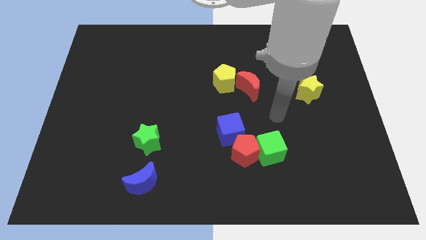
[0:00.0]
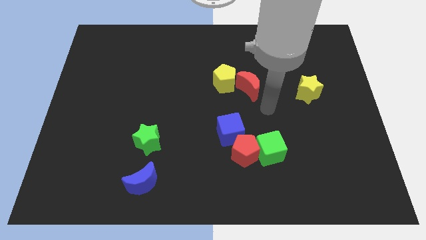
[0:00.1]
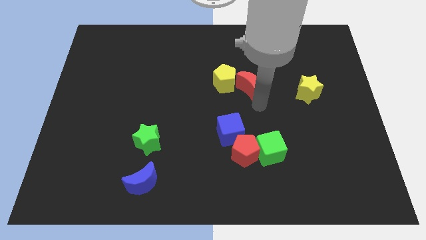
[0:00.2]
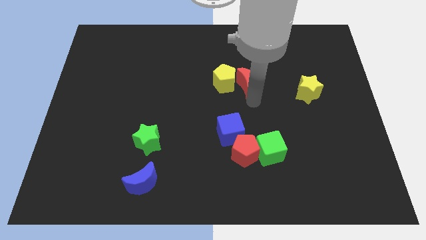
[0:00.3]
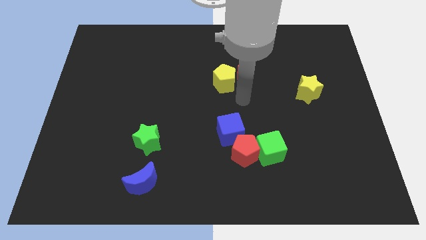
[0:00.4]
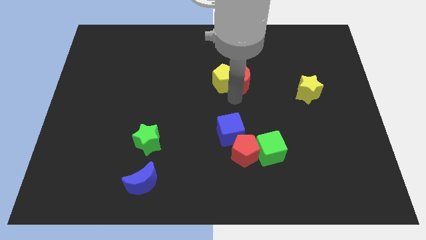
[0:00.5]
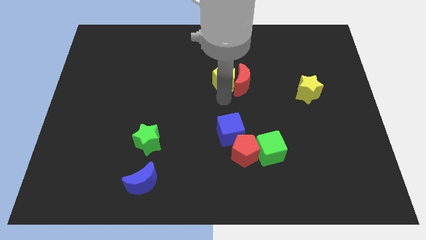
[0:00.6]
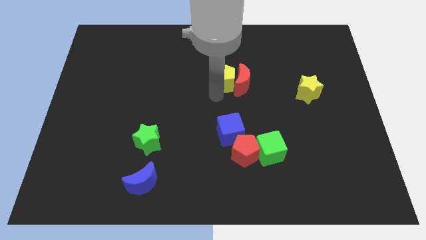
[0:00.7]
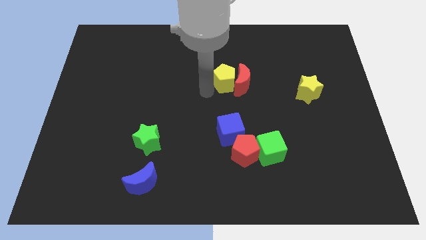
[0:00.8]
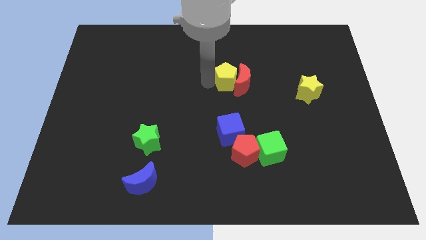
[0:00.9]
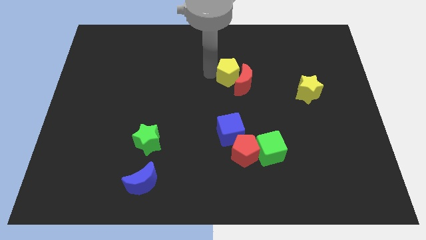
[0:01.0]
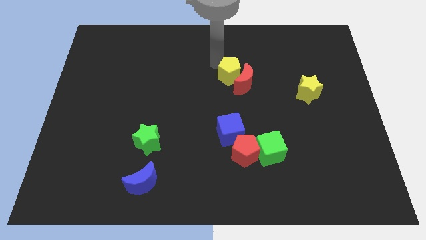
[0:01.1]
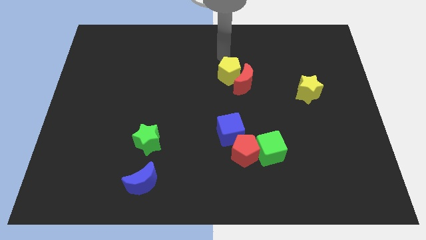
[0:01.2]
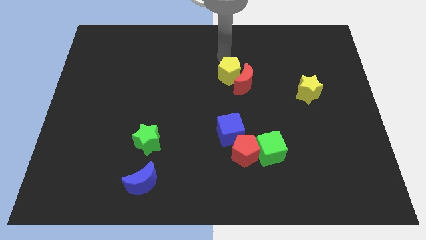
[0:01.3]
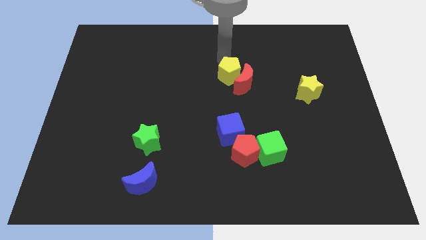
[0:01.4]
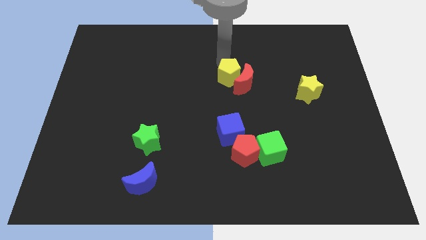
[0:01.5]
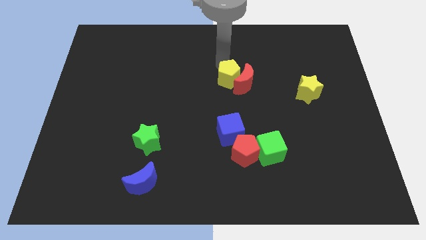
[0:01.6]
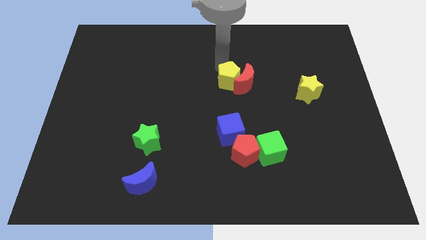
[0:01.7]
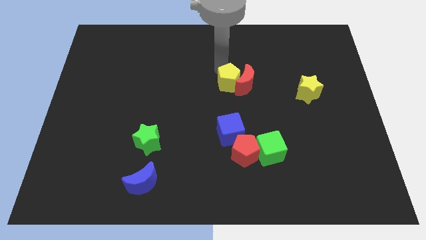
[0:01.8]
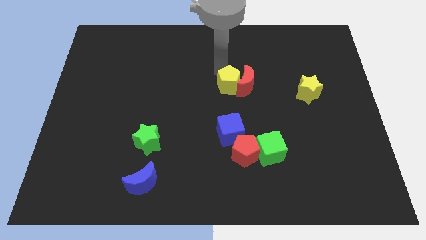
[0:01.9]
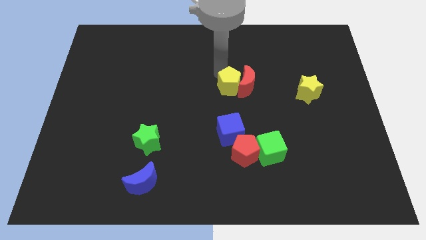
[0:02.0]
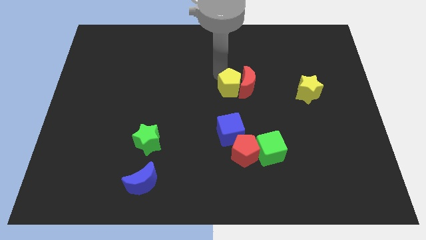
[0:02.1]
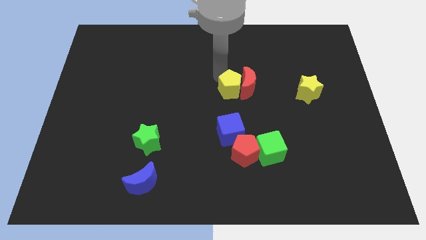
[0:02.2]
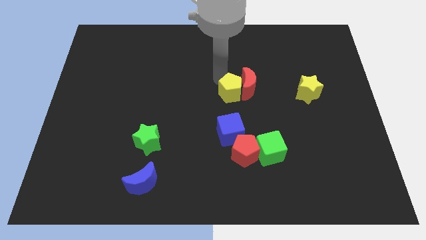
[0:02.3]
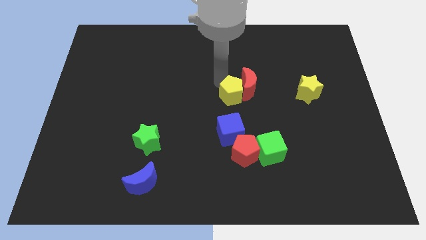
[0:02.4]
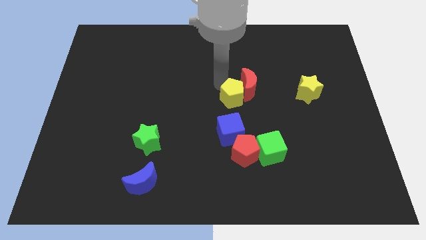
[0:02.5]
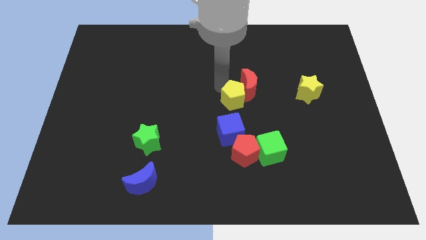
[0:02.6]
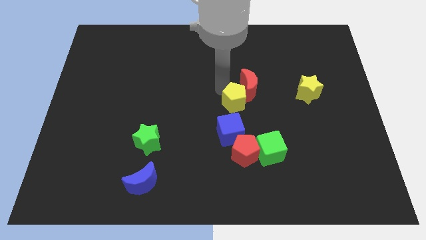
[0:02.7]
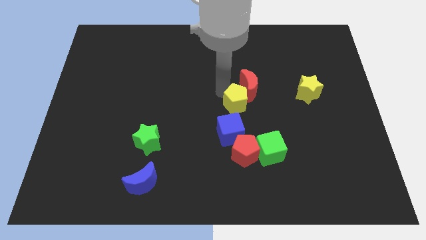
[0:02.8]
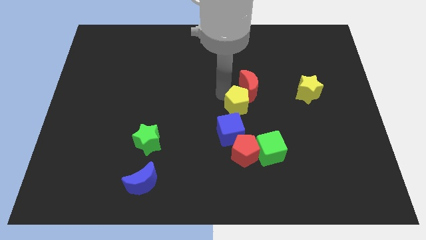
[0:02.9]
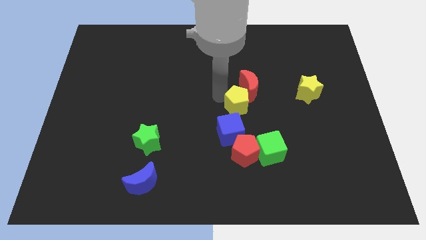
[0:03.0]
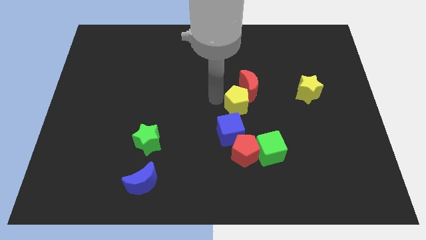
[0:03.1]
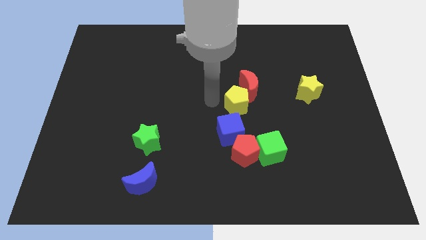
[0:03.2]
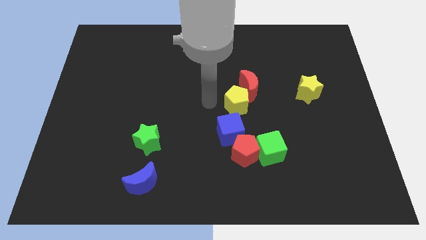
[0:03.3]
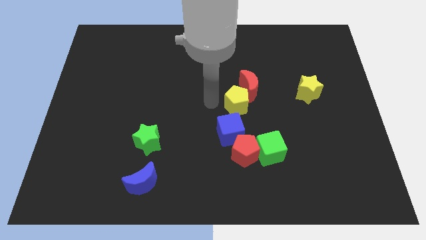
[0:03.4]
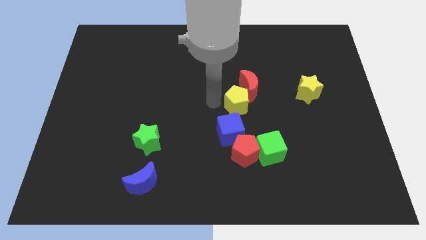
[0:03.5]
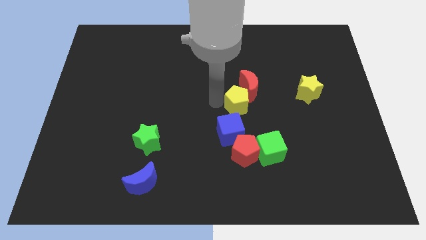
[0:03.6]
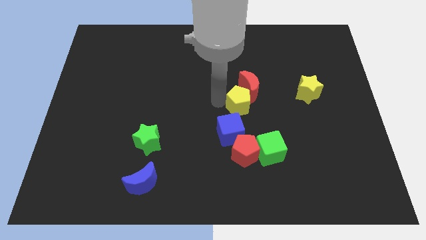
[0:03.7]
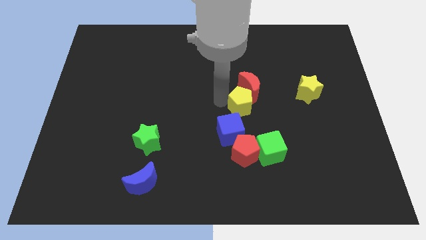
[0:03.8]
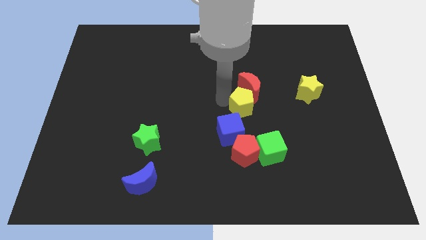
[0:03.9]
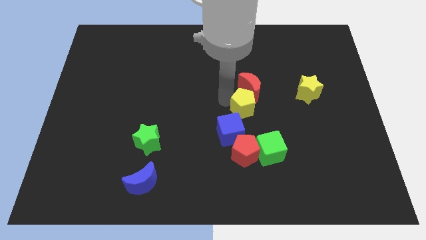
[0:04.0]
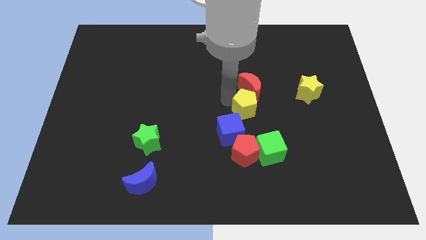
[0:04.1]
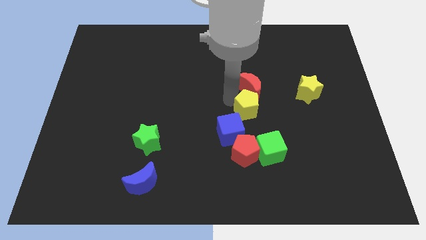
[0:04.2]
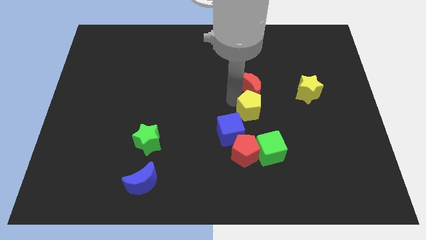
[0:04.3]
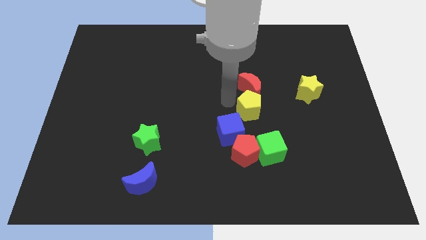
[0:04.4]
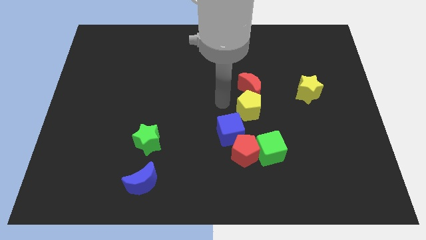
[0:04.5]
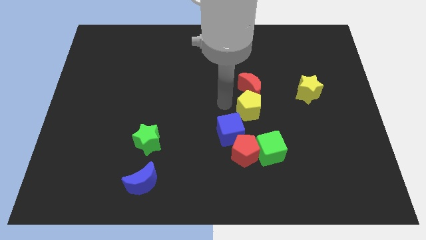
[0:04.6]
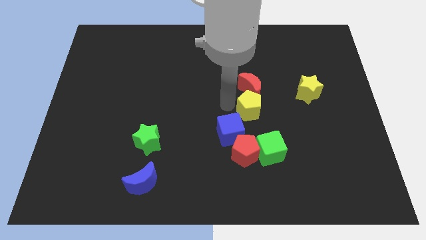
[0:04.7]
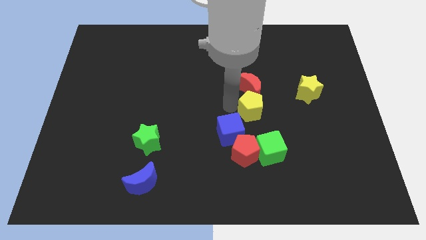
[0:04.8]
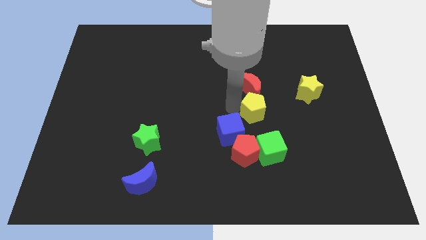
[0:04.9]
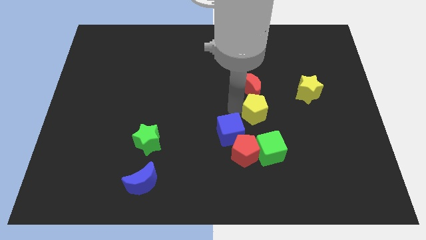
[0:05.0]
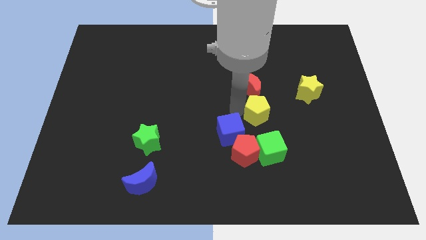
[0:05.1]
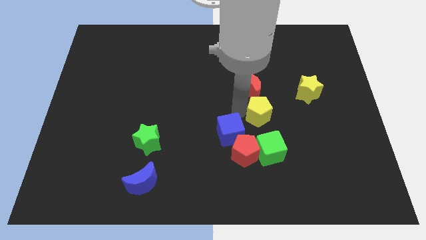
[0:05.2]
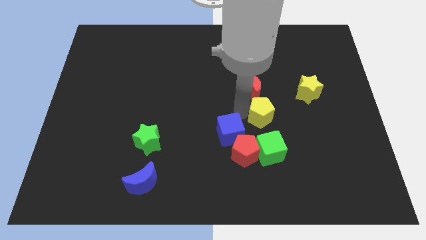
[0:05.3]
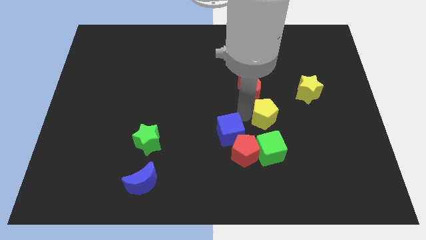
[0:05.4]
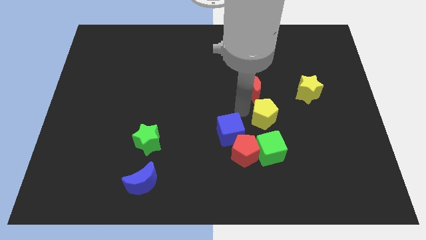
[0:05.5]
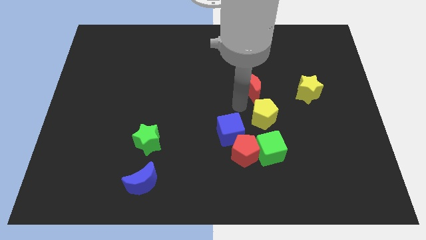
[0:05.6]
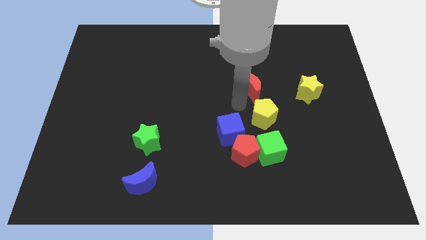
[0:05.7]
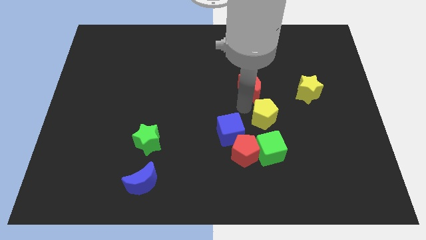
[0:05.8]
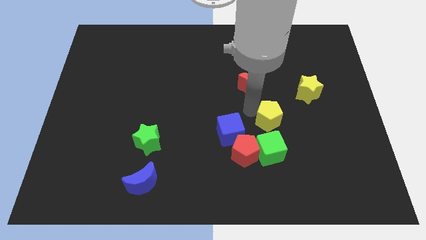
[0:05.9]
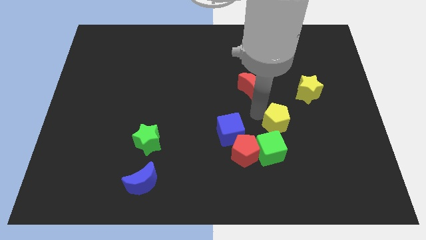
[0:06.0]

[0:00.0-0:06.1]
slide the yellow pentagon to the top right of the green cube
